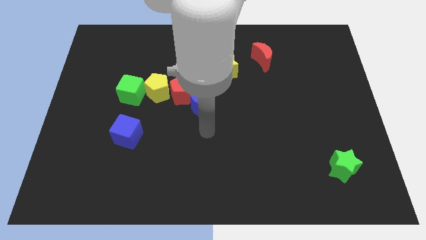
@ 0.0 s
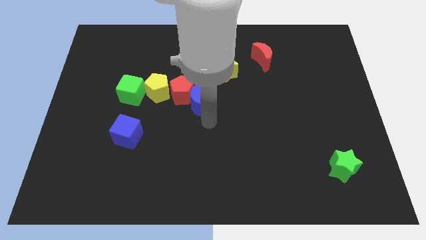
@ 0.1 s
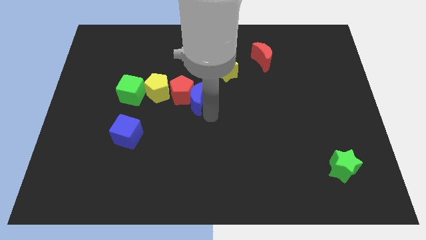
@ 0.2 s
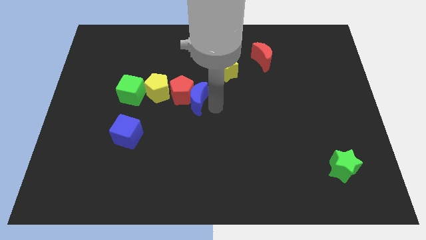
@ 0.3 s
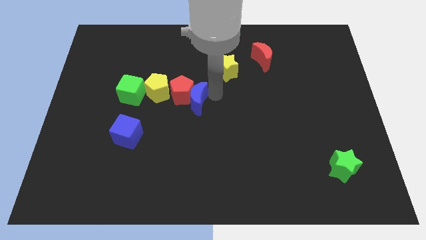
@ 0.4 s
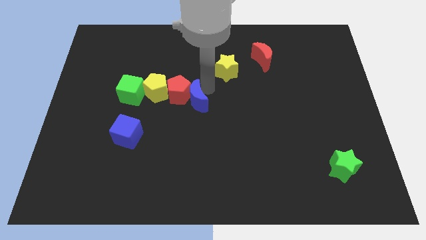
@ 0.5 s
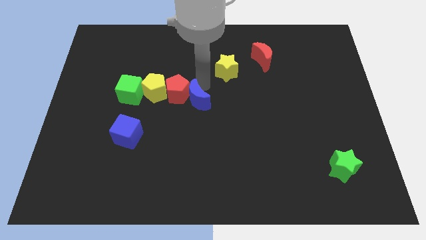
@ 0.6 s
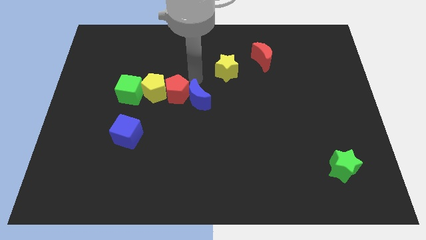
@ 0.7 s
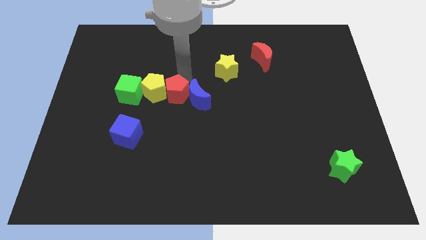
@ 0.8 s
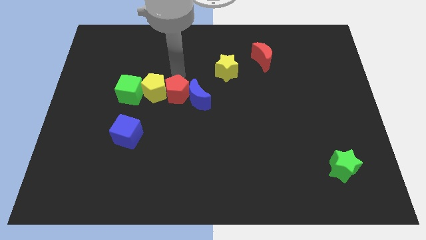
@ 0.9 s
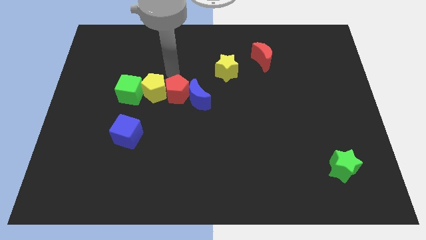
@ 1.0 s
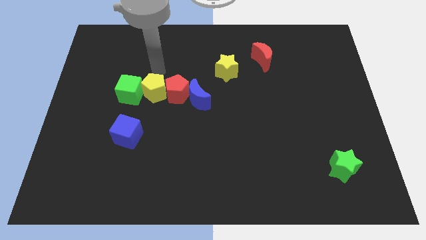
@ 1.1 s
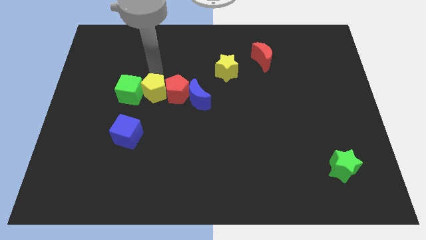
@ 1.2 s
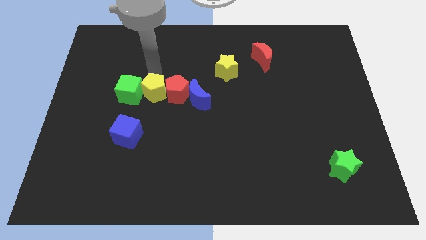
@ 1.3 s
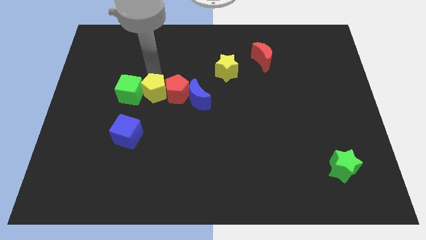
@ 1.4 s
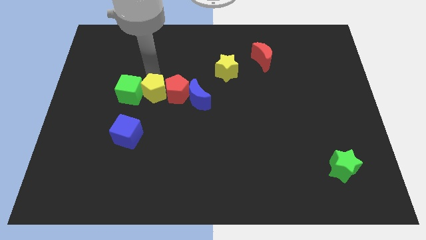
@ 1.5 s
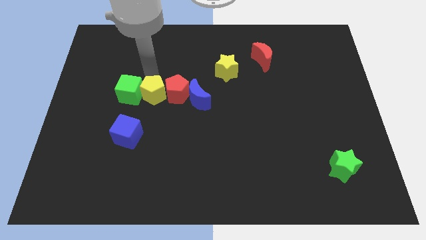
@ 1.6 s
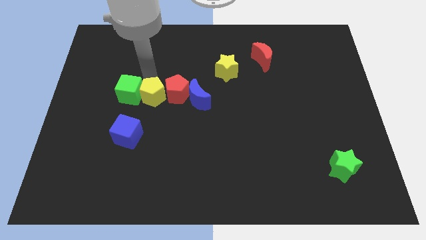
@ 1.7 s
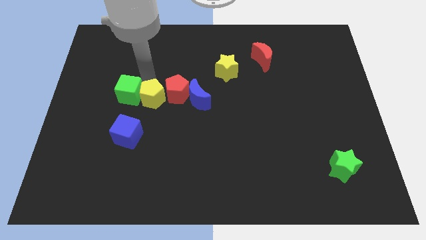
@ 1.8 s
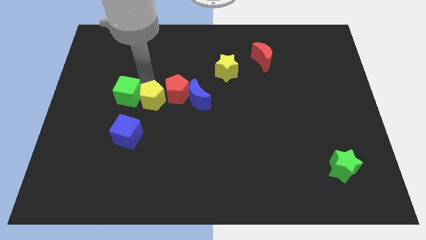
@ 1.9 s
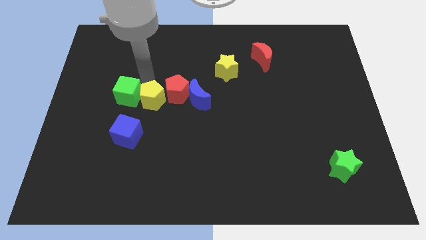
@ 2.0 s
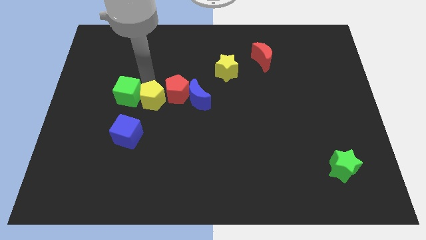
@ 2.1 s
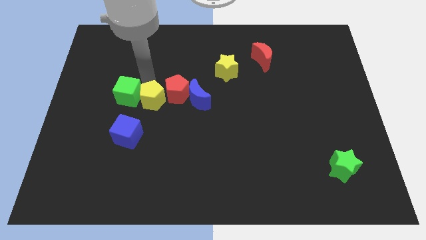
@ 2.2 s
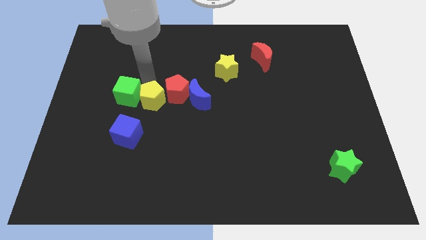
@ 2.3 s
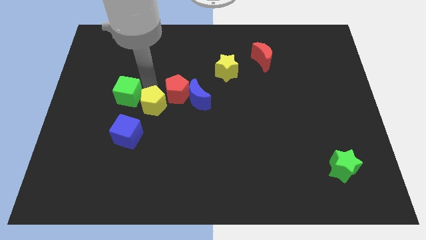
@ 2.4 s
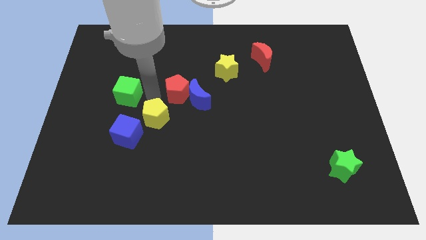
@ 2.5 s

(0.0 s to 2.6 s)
slightly push the yellow pentagon down

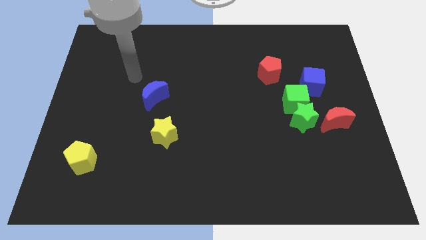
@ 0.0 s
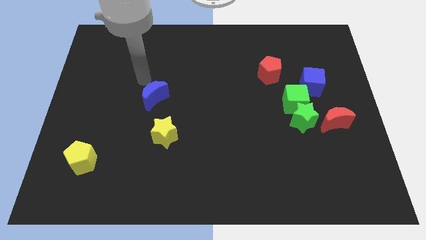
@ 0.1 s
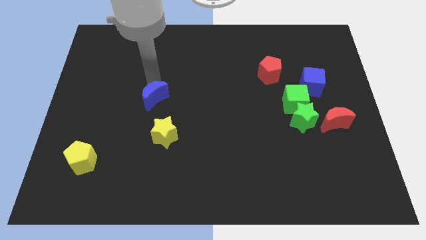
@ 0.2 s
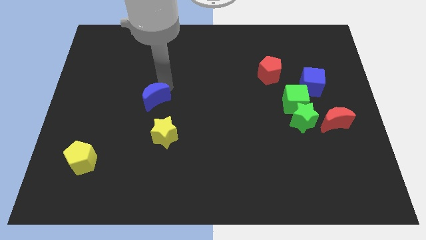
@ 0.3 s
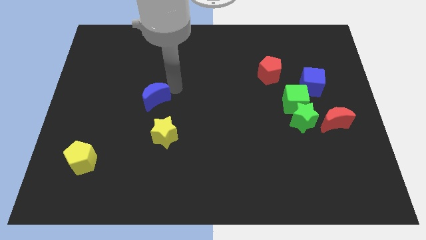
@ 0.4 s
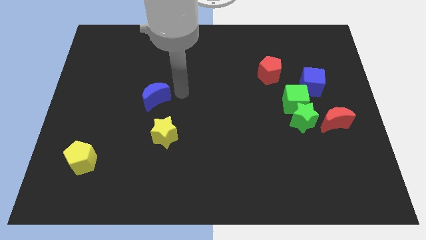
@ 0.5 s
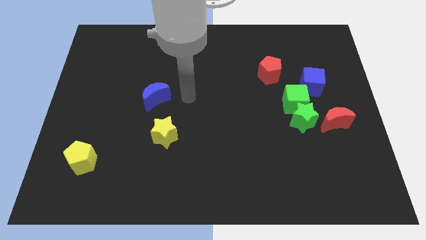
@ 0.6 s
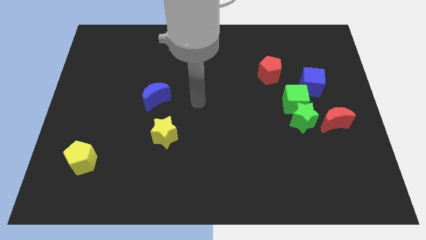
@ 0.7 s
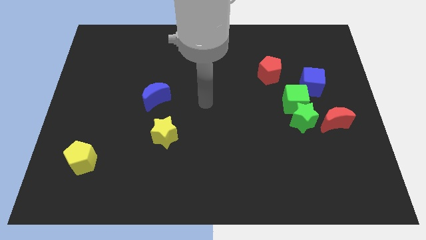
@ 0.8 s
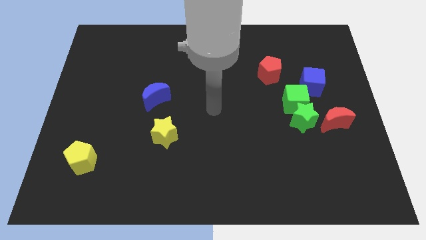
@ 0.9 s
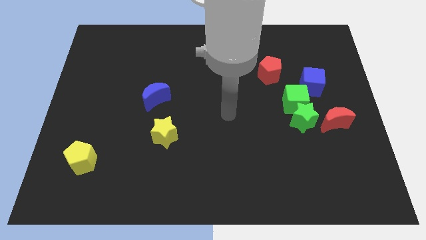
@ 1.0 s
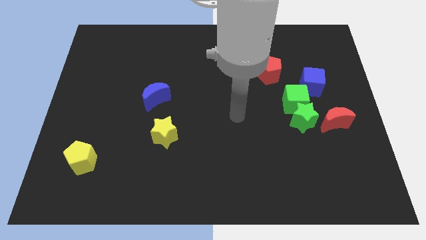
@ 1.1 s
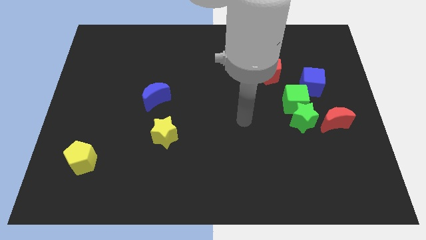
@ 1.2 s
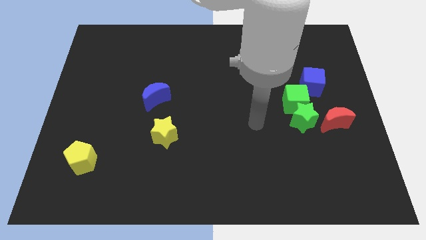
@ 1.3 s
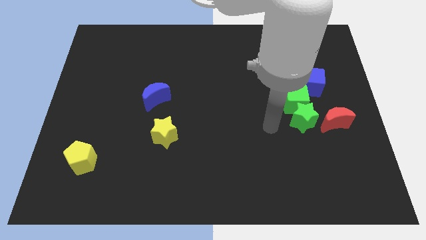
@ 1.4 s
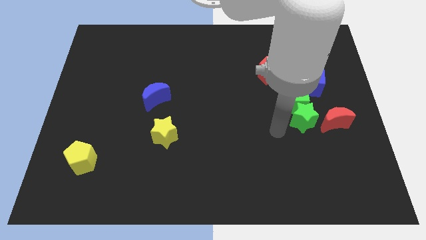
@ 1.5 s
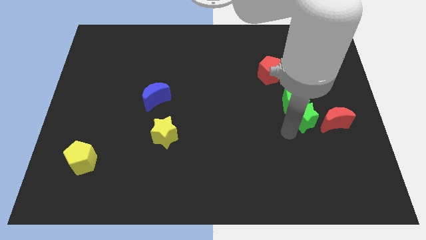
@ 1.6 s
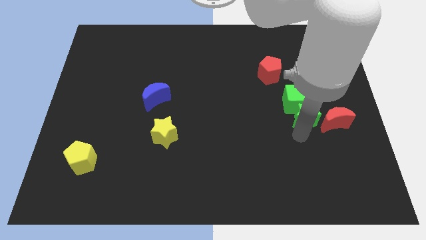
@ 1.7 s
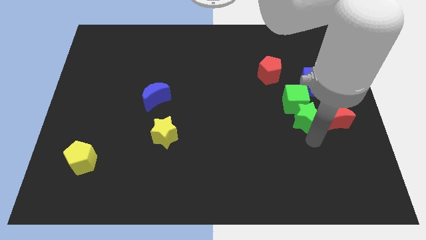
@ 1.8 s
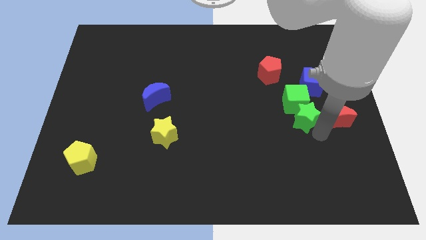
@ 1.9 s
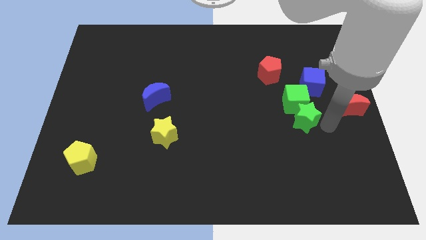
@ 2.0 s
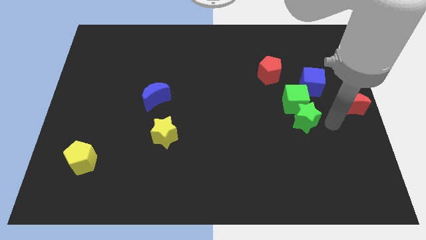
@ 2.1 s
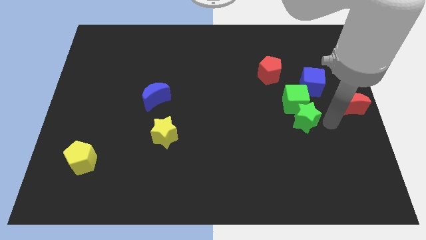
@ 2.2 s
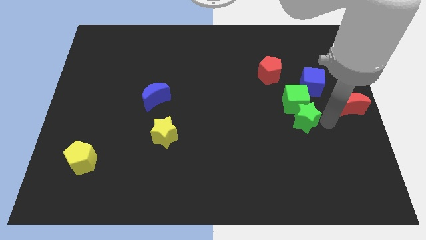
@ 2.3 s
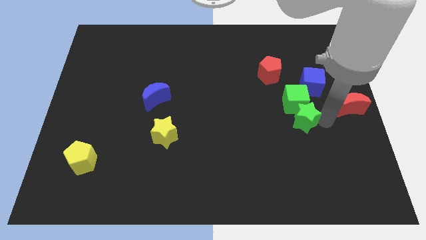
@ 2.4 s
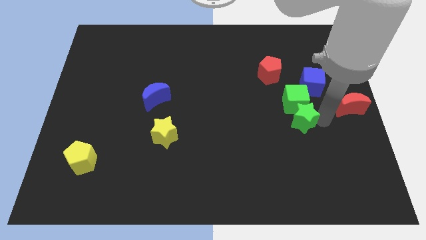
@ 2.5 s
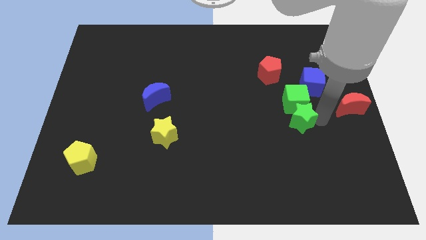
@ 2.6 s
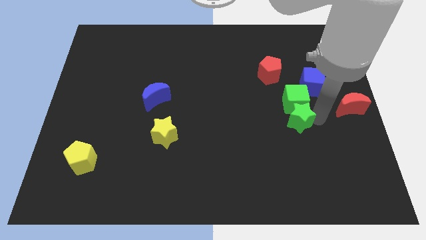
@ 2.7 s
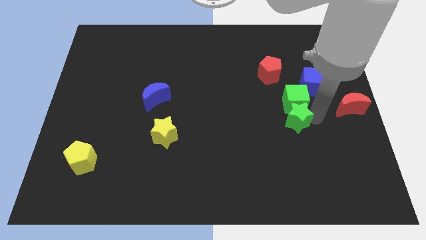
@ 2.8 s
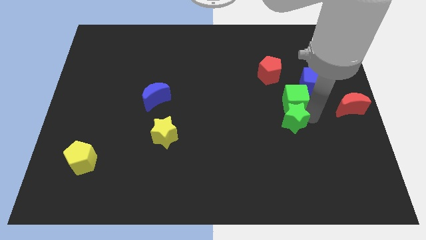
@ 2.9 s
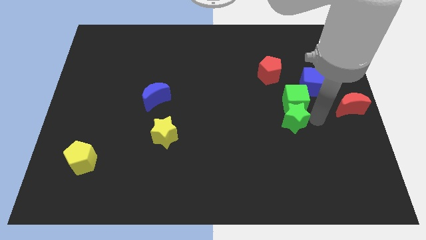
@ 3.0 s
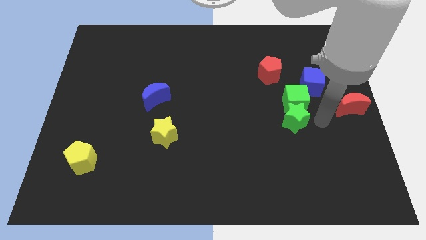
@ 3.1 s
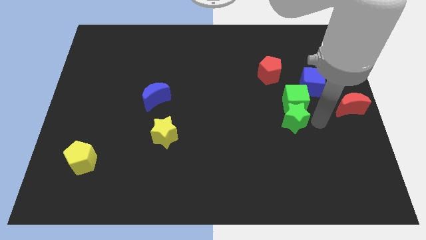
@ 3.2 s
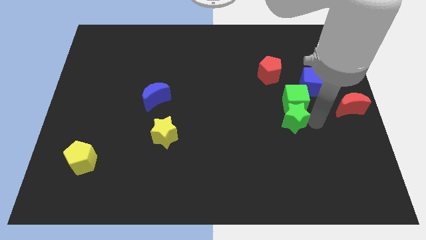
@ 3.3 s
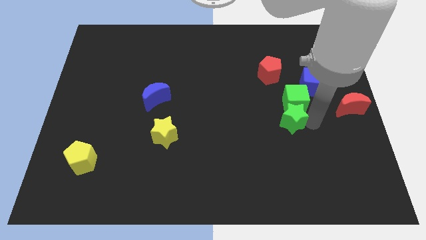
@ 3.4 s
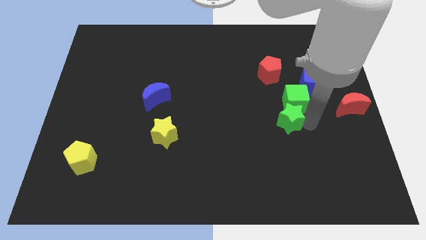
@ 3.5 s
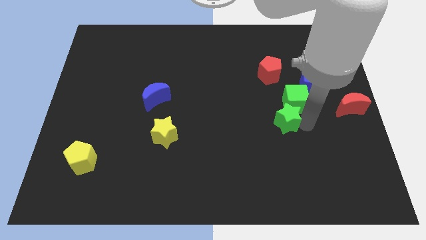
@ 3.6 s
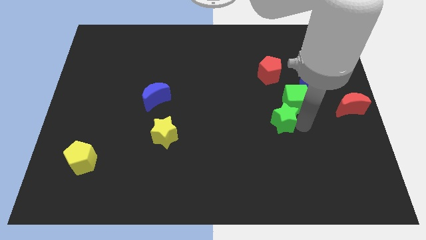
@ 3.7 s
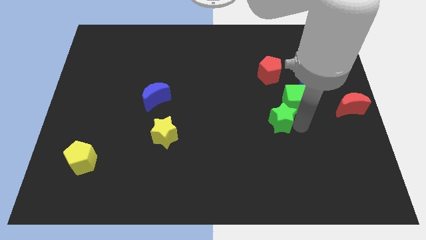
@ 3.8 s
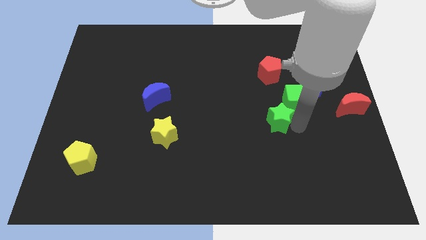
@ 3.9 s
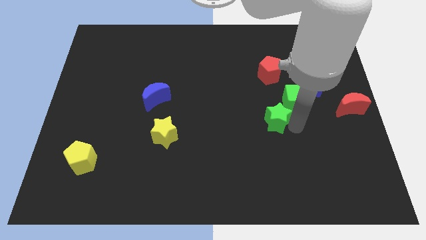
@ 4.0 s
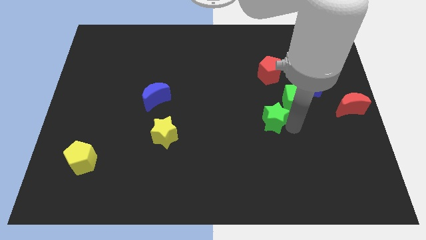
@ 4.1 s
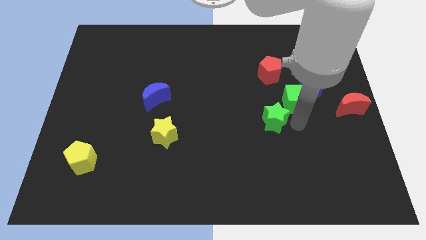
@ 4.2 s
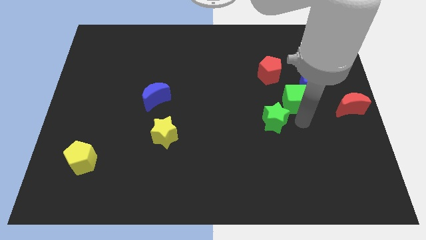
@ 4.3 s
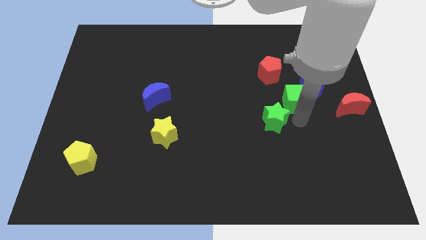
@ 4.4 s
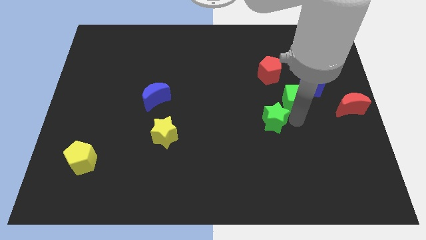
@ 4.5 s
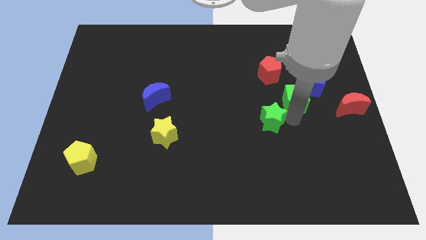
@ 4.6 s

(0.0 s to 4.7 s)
slide the green star a little bit left

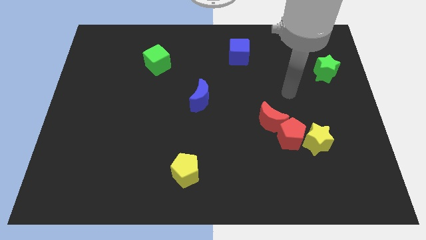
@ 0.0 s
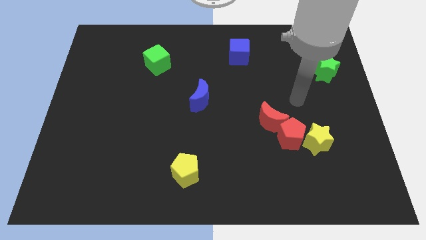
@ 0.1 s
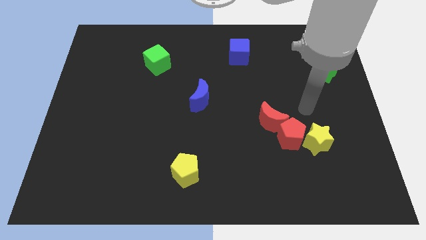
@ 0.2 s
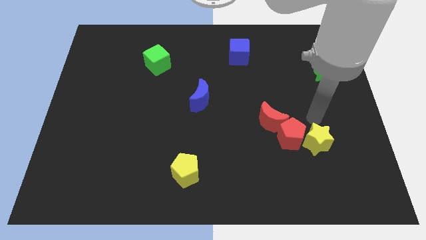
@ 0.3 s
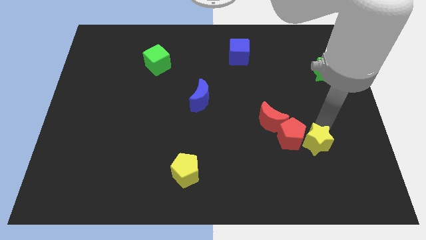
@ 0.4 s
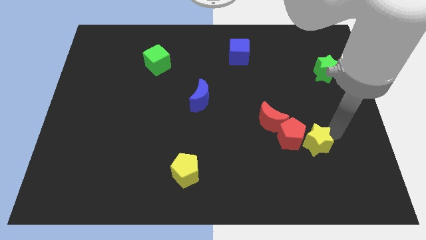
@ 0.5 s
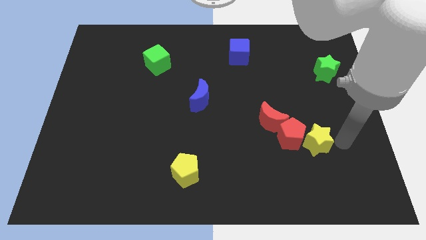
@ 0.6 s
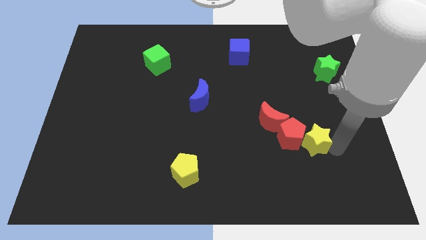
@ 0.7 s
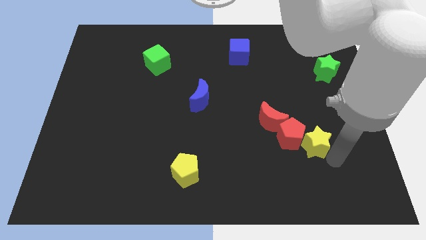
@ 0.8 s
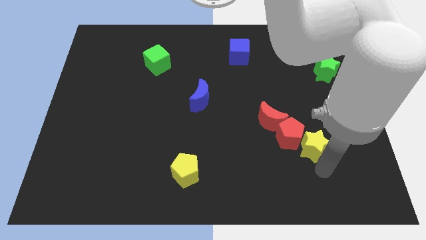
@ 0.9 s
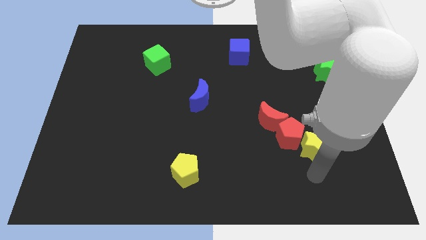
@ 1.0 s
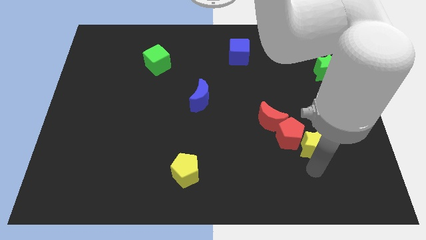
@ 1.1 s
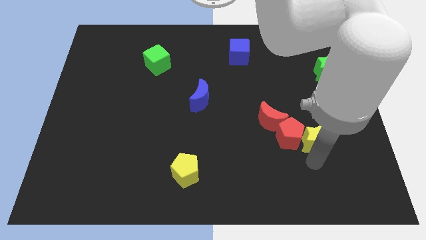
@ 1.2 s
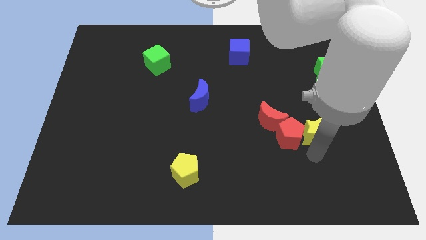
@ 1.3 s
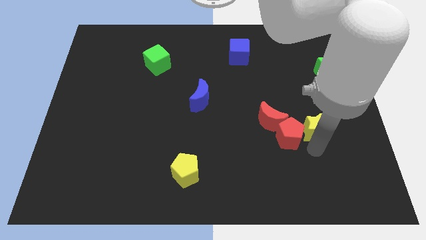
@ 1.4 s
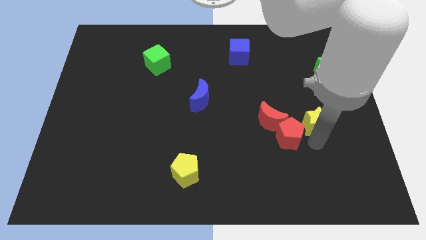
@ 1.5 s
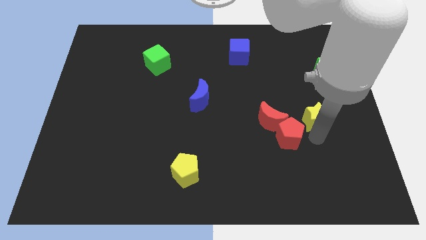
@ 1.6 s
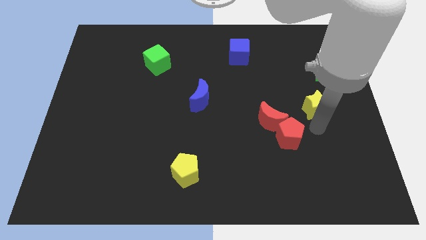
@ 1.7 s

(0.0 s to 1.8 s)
push the yellow star upwards a little
